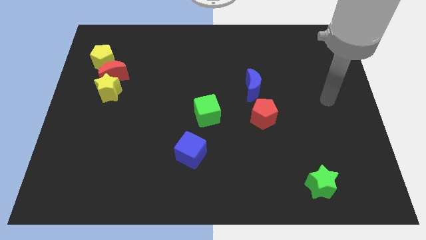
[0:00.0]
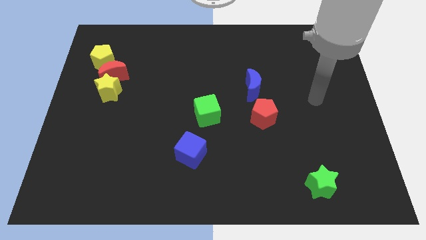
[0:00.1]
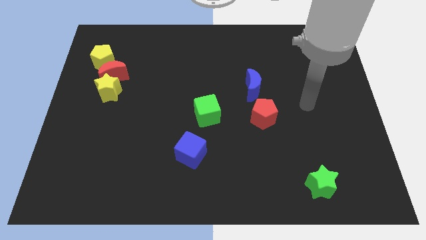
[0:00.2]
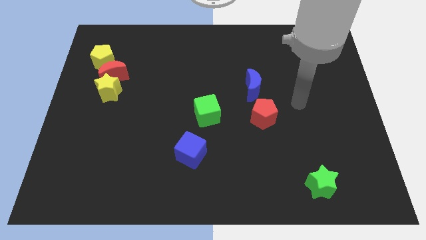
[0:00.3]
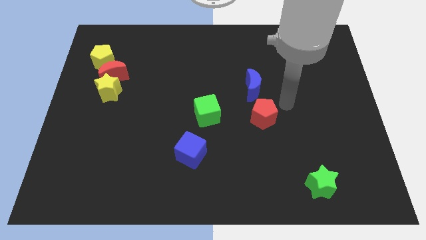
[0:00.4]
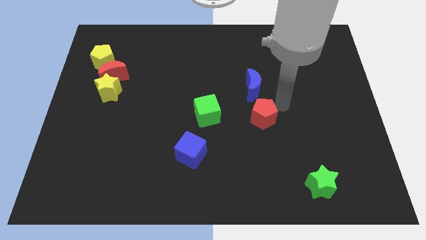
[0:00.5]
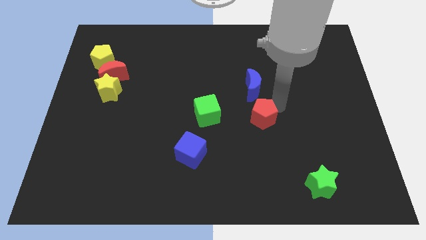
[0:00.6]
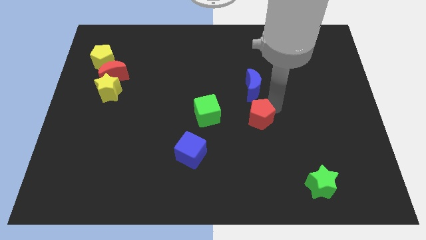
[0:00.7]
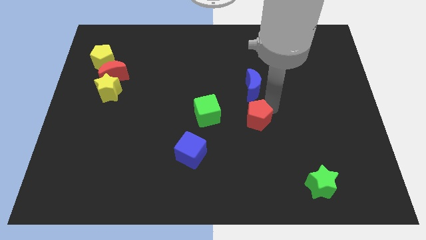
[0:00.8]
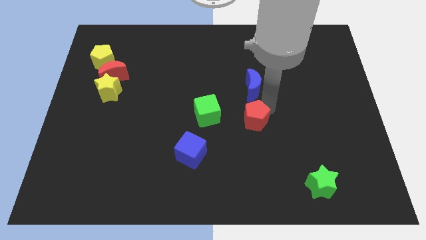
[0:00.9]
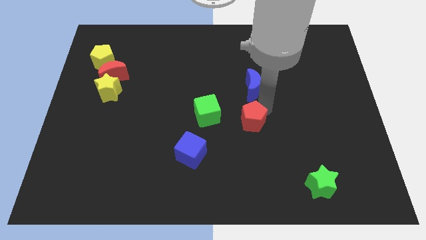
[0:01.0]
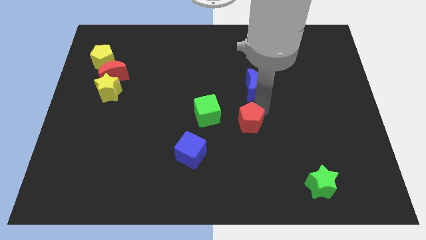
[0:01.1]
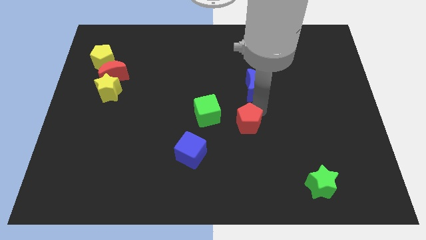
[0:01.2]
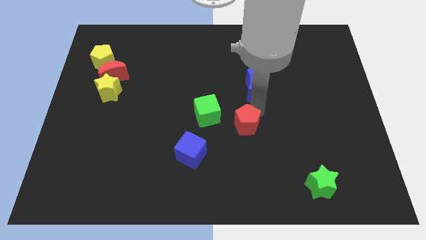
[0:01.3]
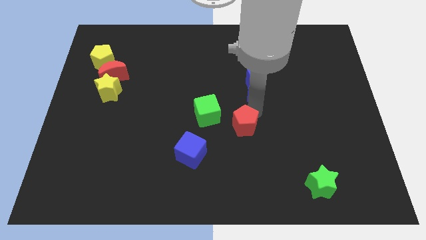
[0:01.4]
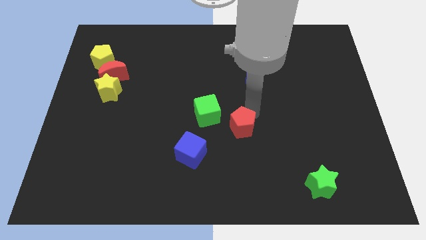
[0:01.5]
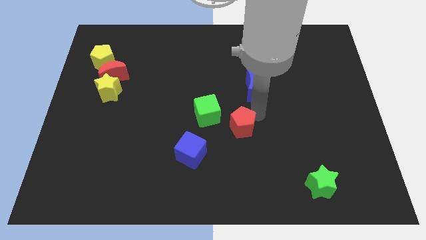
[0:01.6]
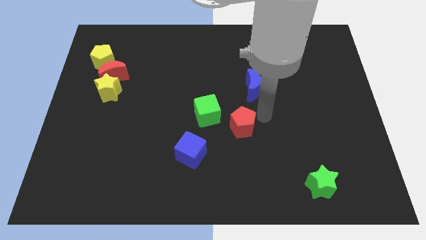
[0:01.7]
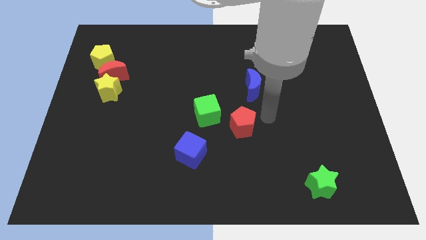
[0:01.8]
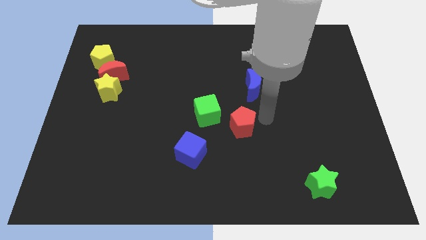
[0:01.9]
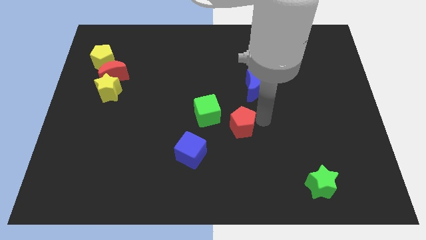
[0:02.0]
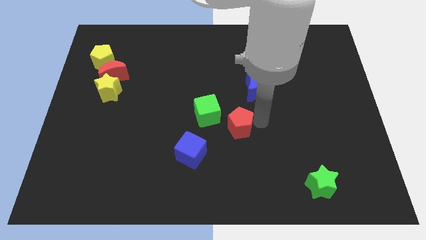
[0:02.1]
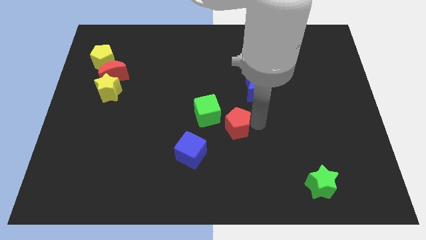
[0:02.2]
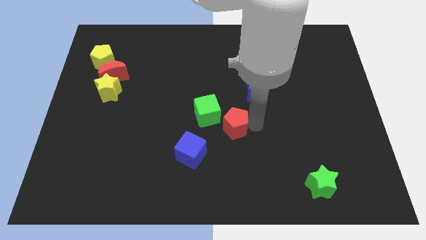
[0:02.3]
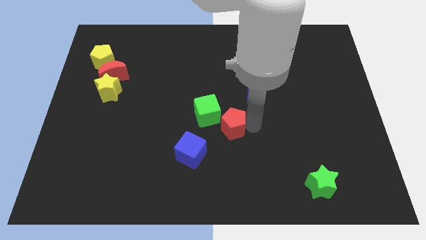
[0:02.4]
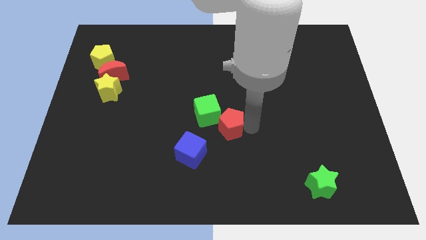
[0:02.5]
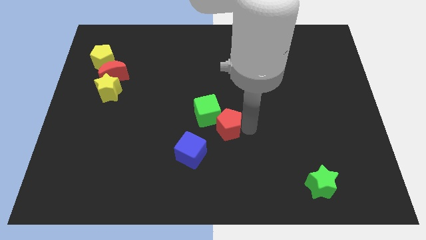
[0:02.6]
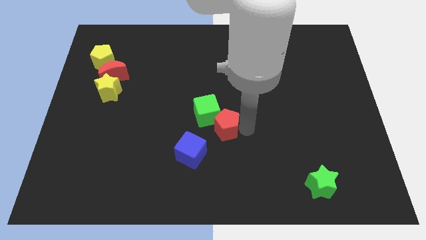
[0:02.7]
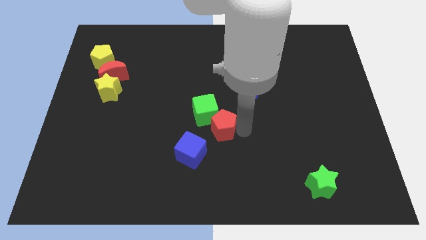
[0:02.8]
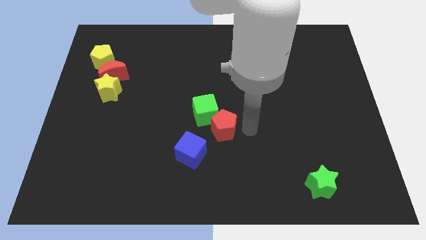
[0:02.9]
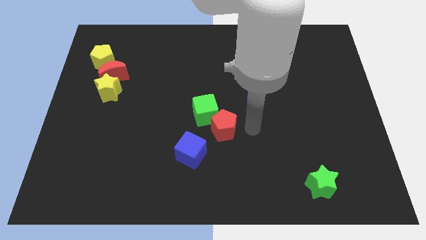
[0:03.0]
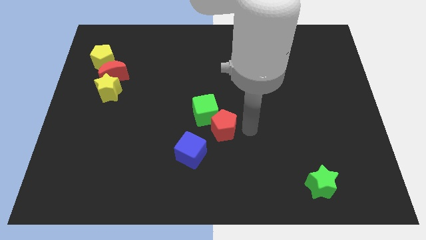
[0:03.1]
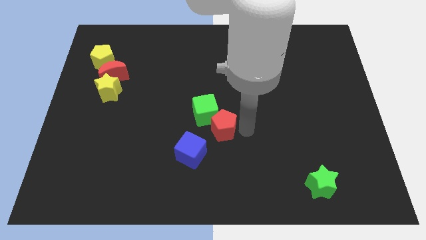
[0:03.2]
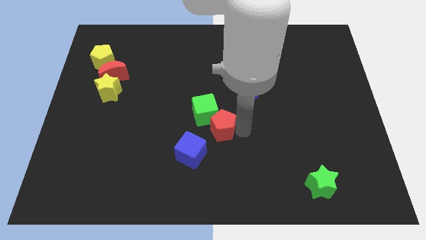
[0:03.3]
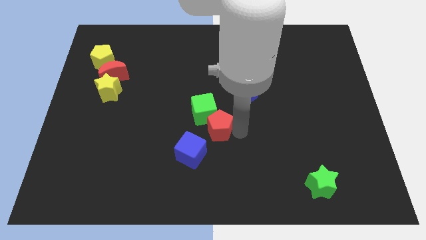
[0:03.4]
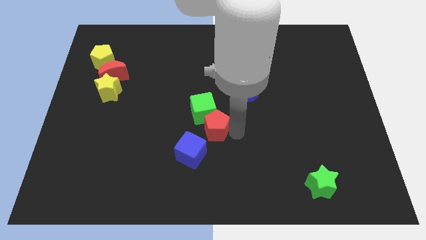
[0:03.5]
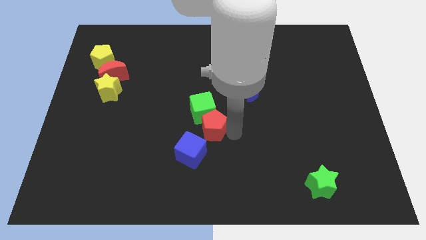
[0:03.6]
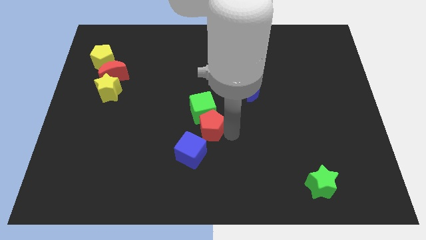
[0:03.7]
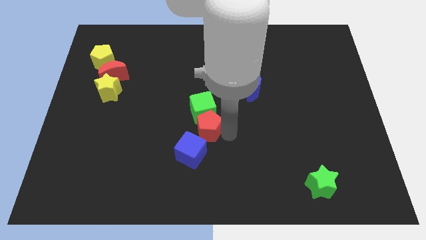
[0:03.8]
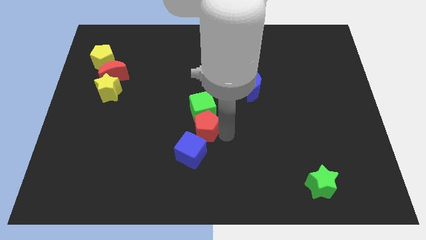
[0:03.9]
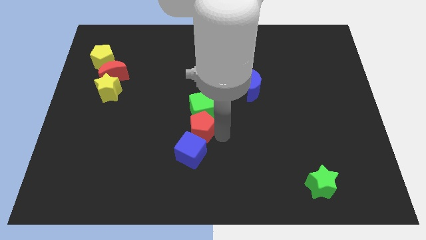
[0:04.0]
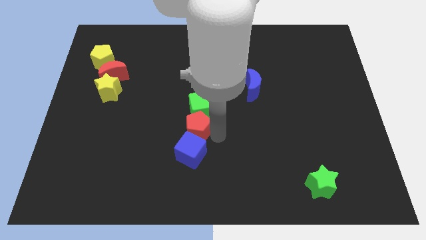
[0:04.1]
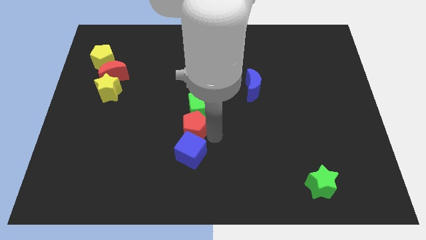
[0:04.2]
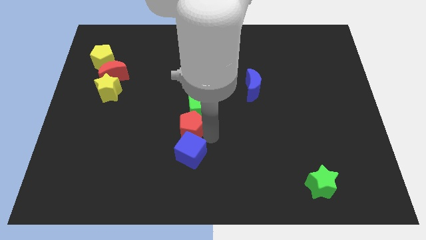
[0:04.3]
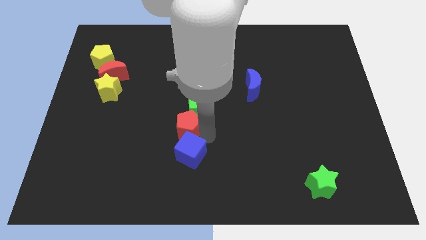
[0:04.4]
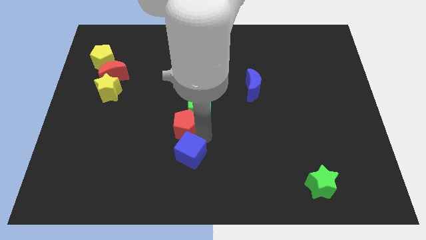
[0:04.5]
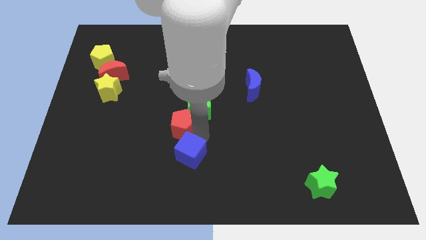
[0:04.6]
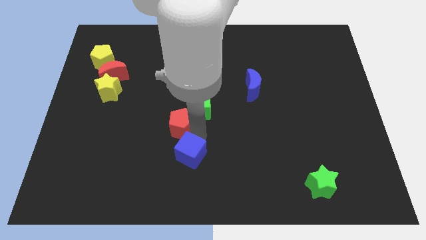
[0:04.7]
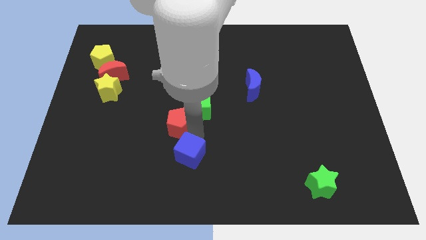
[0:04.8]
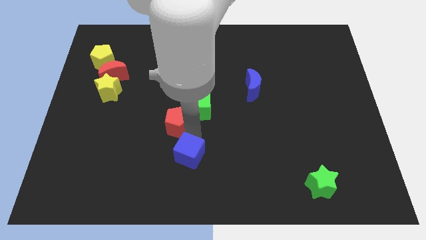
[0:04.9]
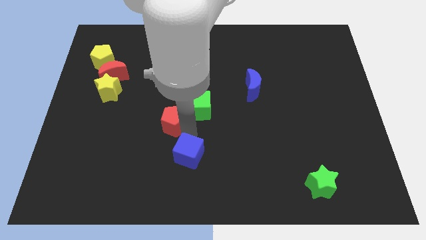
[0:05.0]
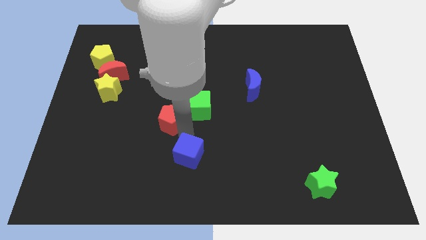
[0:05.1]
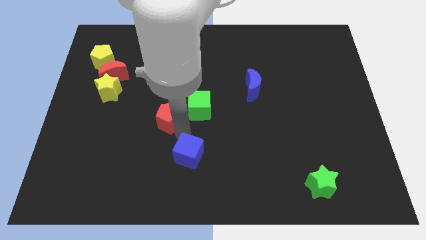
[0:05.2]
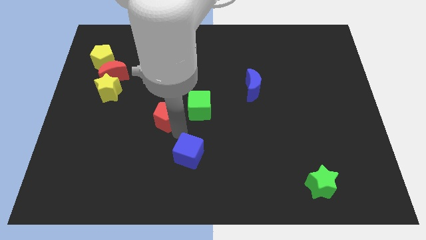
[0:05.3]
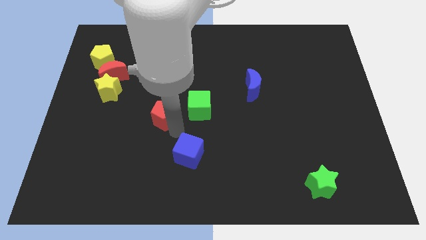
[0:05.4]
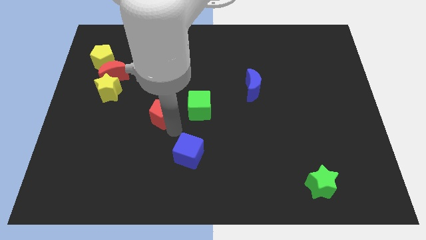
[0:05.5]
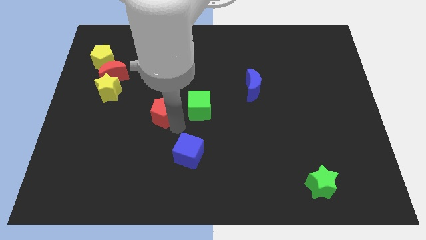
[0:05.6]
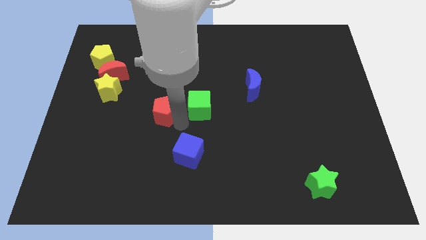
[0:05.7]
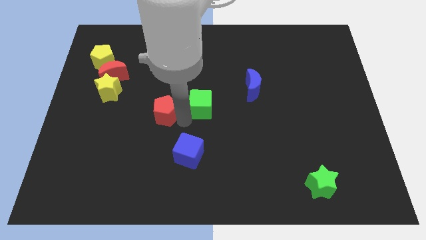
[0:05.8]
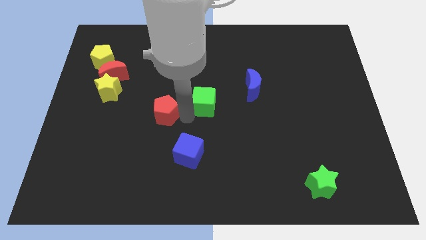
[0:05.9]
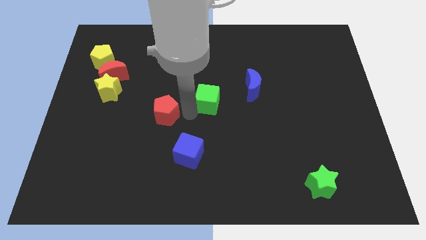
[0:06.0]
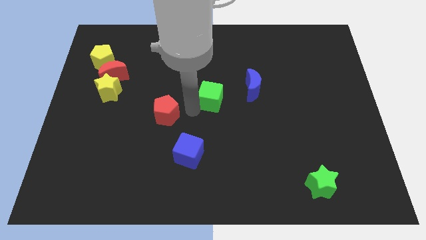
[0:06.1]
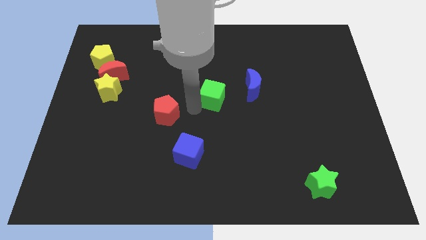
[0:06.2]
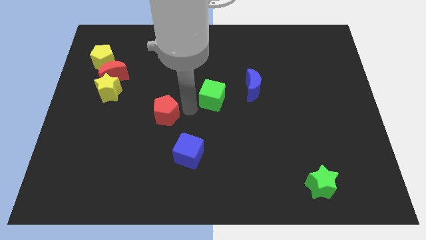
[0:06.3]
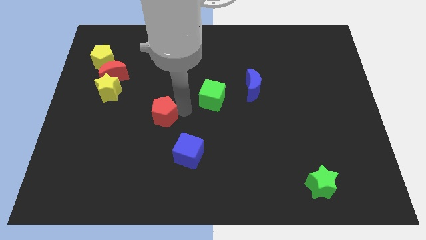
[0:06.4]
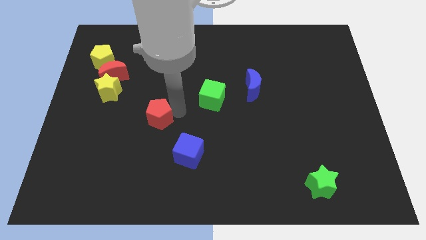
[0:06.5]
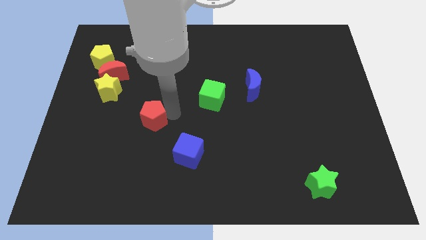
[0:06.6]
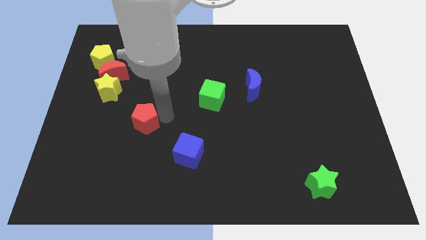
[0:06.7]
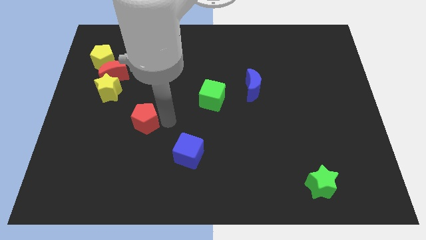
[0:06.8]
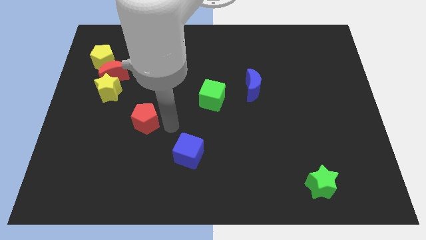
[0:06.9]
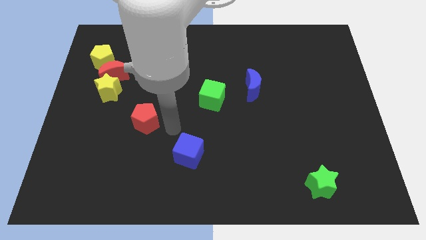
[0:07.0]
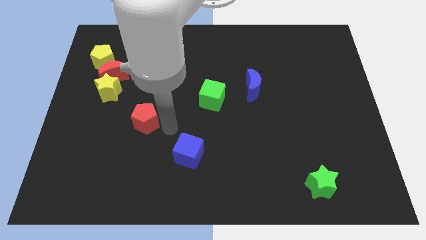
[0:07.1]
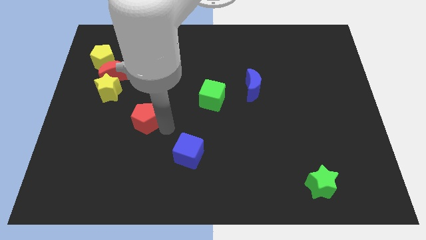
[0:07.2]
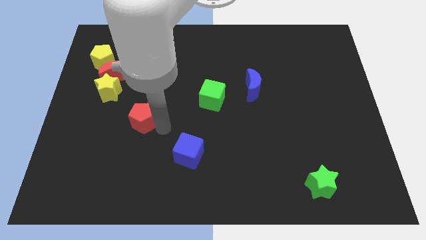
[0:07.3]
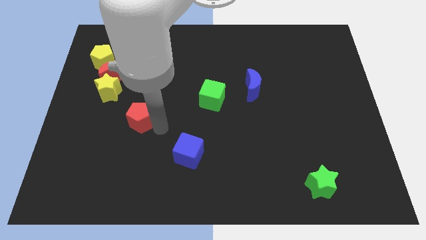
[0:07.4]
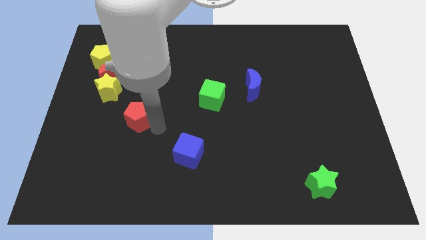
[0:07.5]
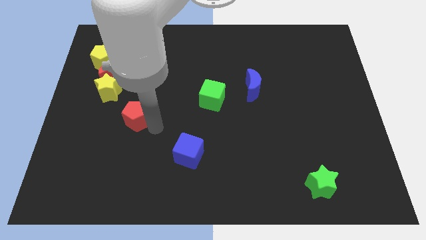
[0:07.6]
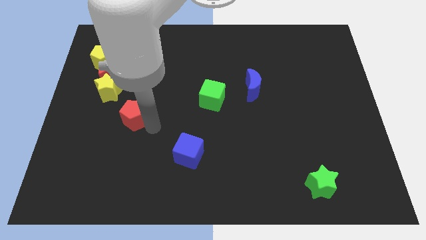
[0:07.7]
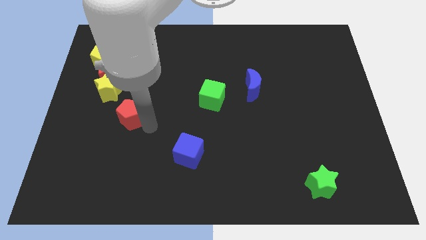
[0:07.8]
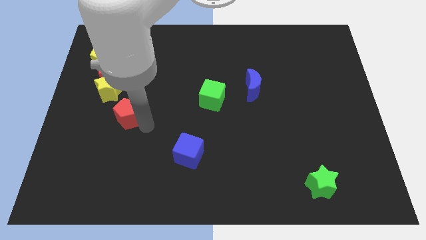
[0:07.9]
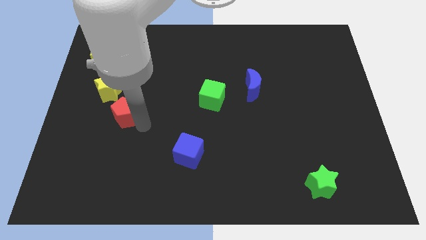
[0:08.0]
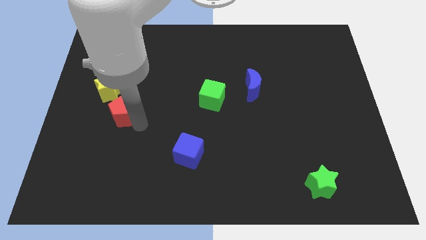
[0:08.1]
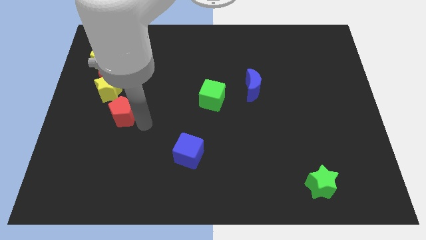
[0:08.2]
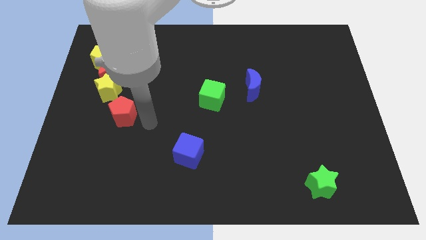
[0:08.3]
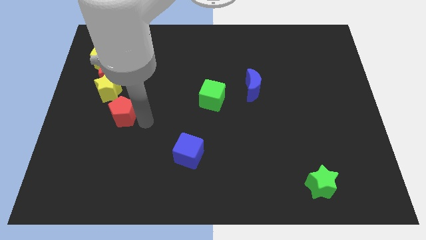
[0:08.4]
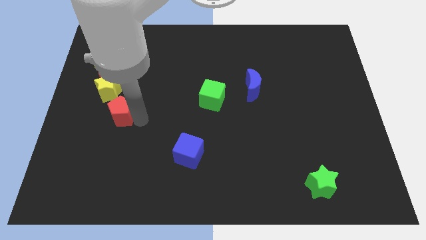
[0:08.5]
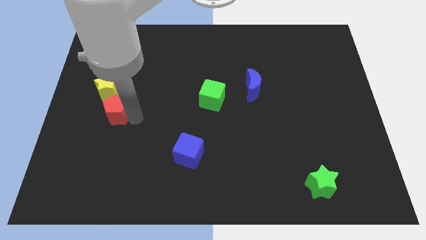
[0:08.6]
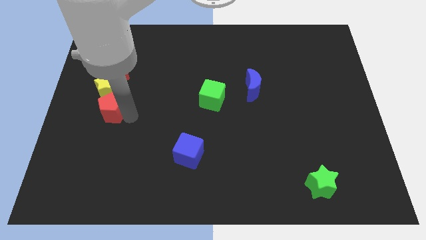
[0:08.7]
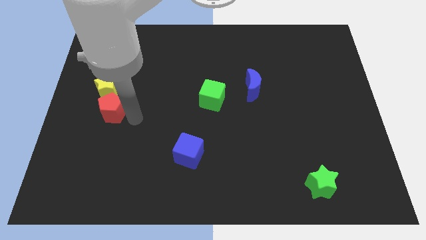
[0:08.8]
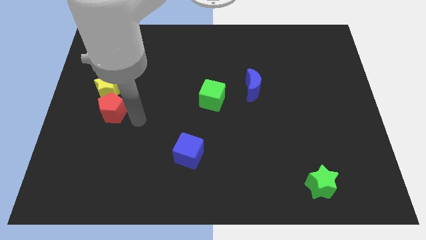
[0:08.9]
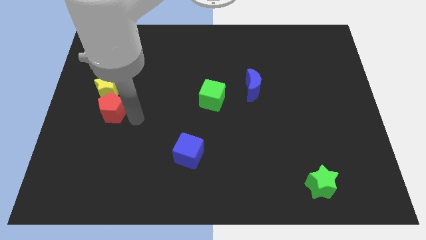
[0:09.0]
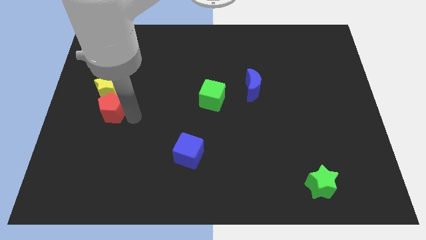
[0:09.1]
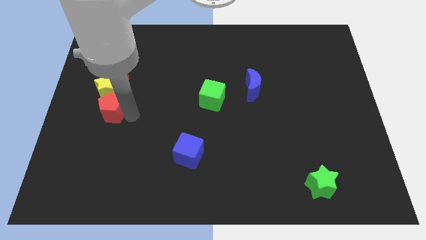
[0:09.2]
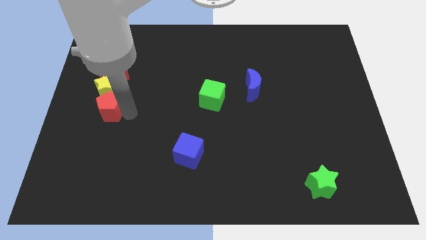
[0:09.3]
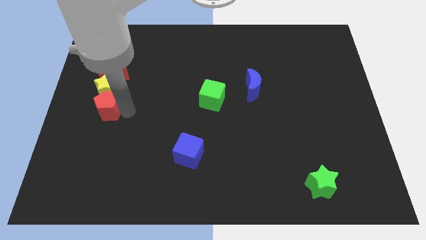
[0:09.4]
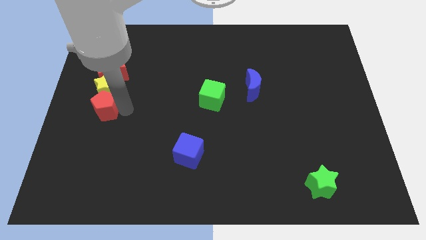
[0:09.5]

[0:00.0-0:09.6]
slide the red pentagon to the left side of the board
